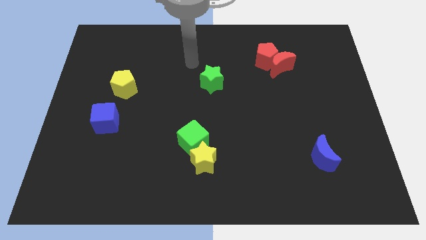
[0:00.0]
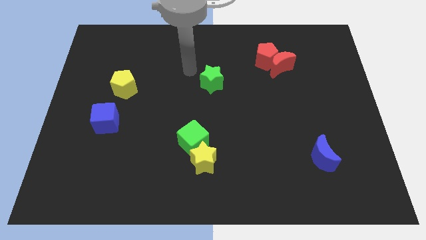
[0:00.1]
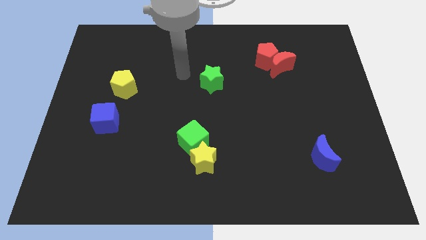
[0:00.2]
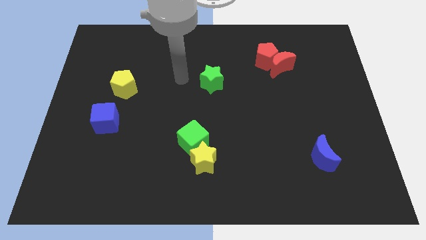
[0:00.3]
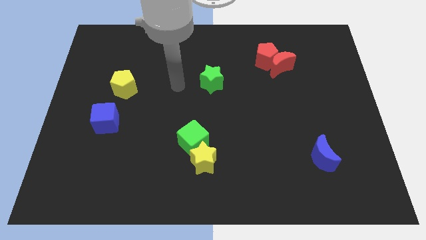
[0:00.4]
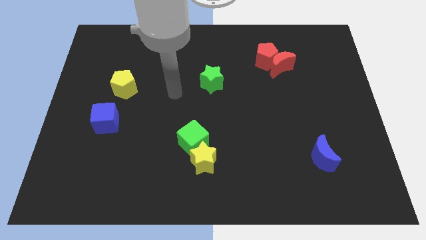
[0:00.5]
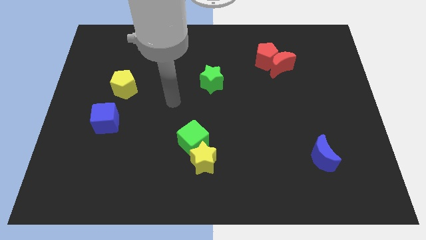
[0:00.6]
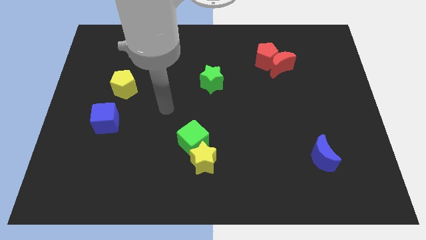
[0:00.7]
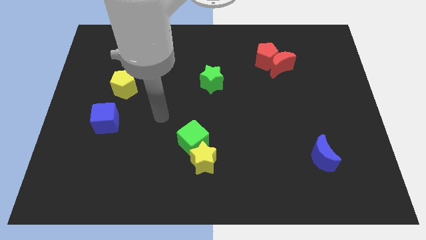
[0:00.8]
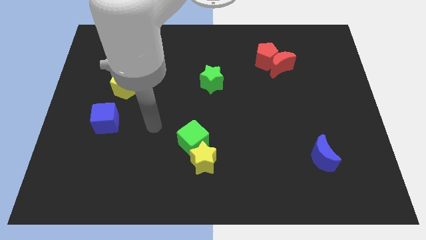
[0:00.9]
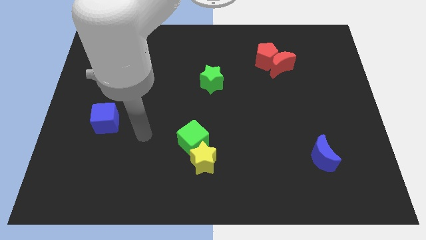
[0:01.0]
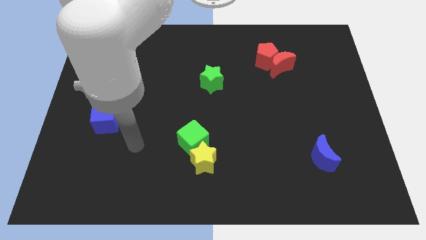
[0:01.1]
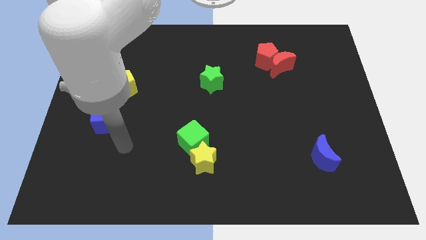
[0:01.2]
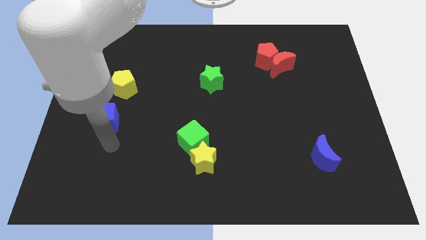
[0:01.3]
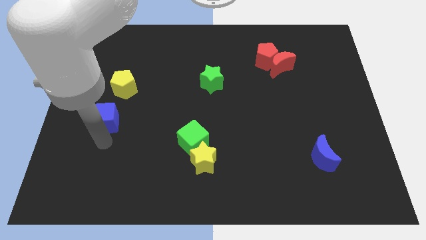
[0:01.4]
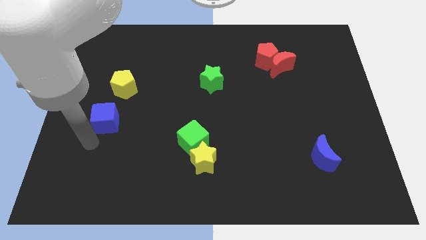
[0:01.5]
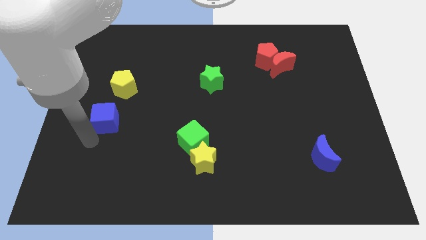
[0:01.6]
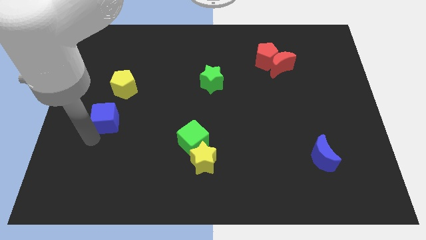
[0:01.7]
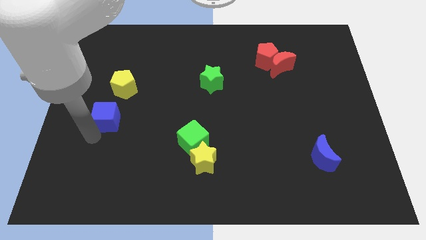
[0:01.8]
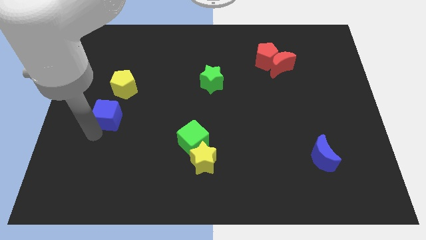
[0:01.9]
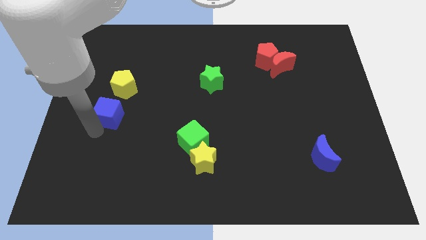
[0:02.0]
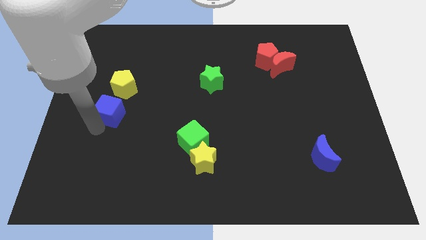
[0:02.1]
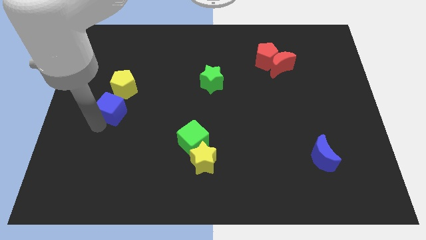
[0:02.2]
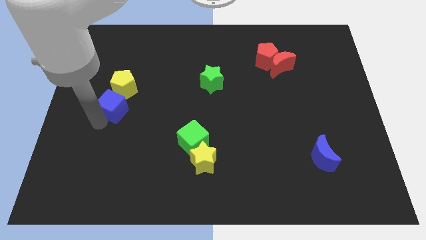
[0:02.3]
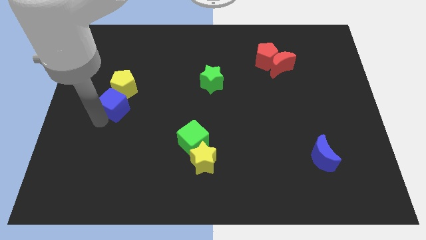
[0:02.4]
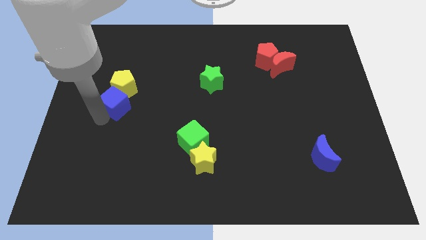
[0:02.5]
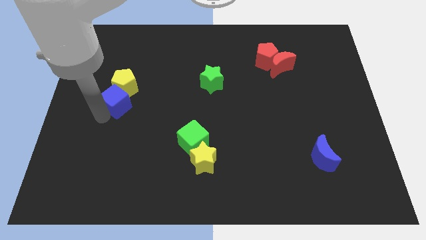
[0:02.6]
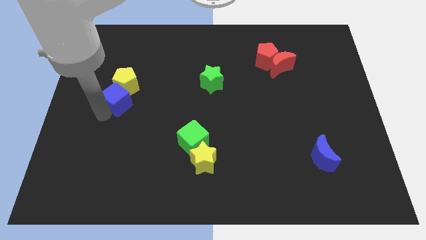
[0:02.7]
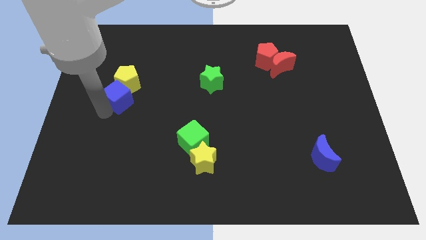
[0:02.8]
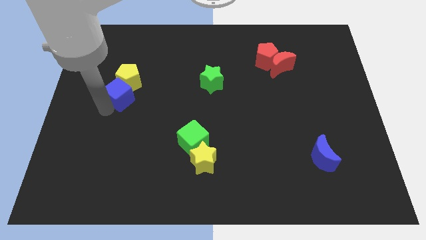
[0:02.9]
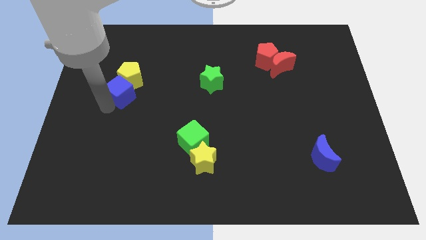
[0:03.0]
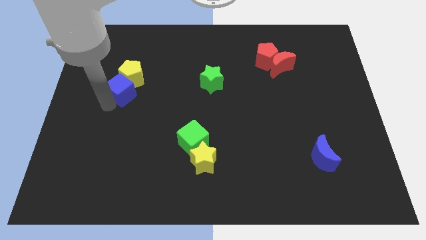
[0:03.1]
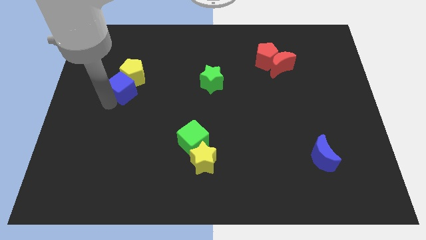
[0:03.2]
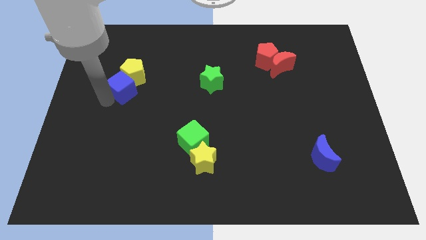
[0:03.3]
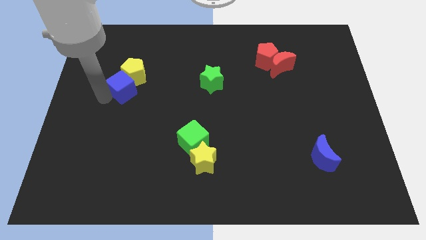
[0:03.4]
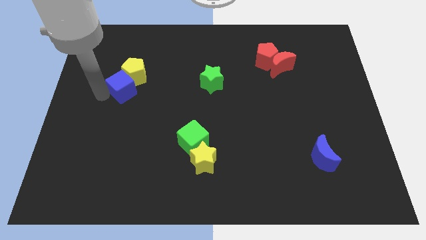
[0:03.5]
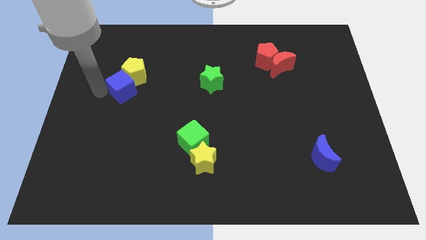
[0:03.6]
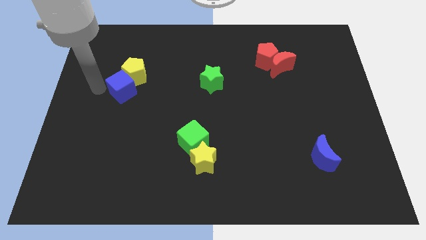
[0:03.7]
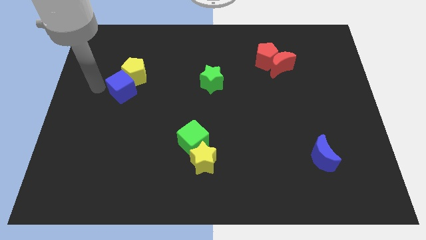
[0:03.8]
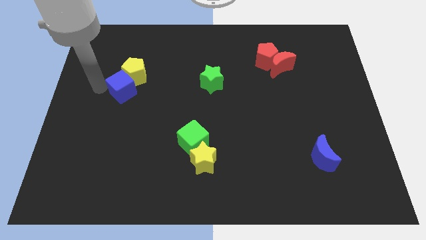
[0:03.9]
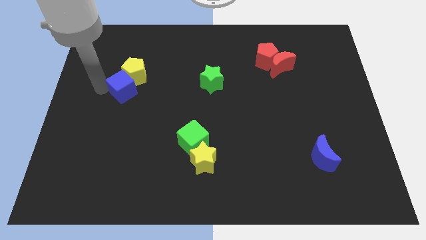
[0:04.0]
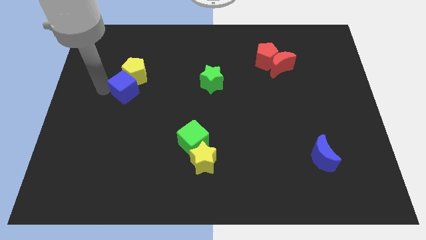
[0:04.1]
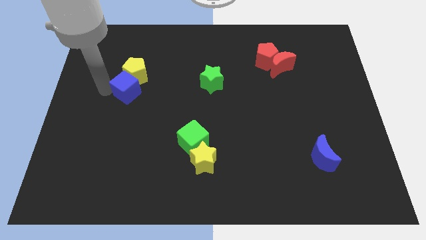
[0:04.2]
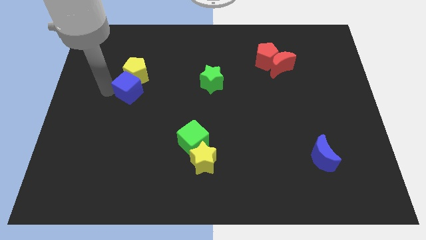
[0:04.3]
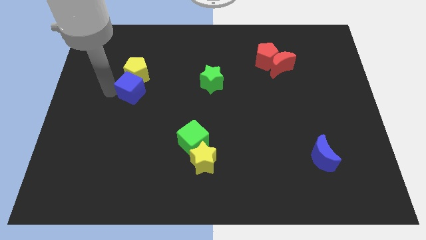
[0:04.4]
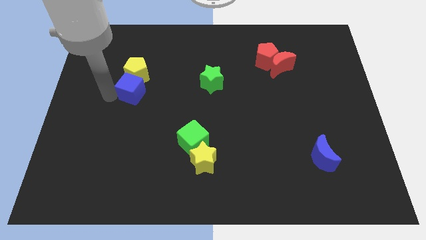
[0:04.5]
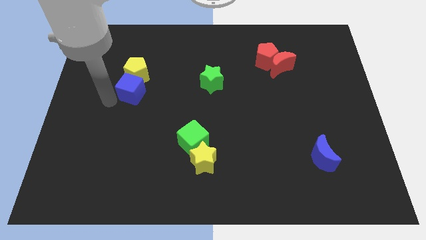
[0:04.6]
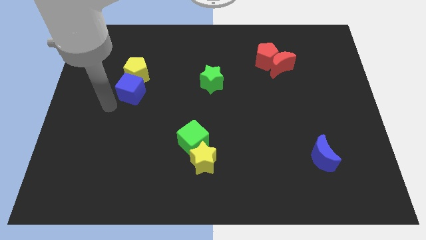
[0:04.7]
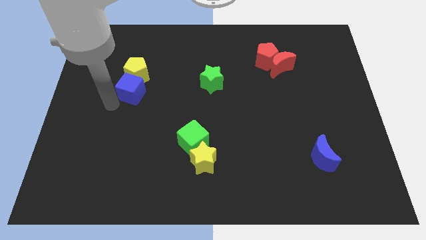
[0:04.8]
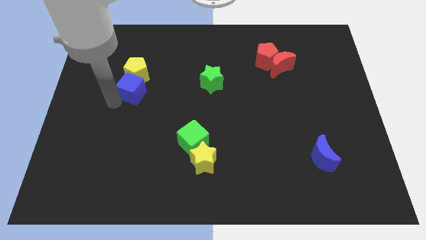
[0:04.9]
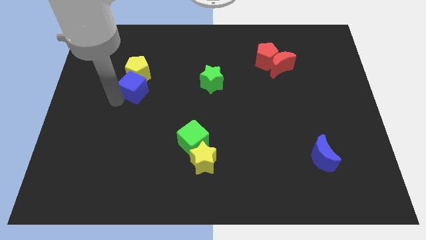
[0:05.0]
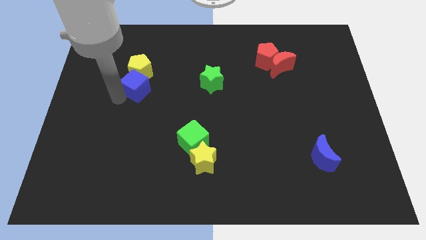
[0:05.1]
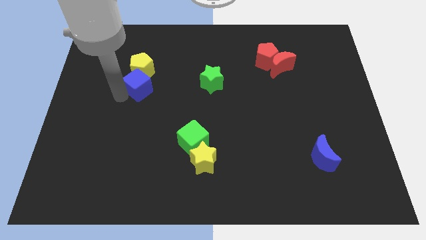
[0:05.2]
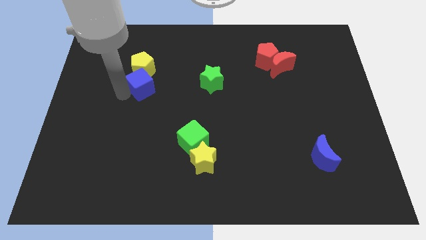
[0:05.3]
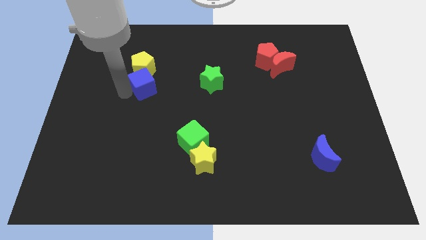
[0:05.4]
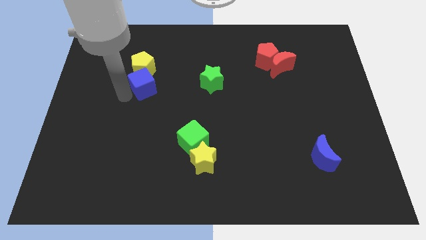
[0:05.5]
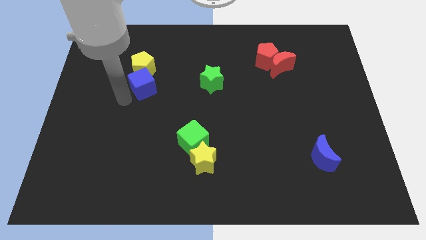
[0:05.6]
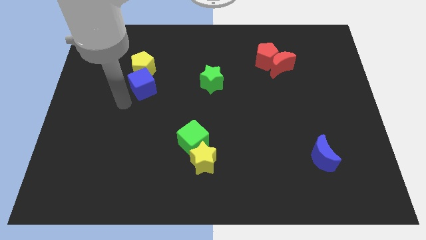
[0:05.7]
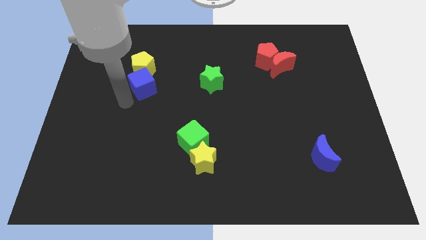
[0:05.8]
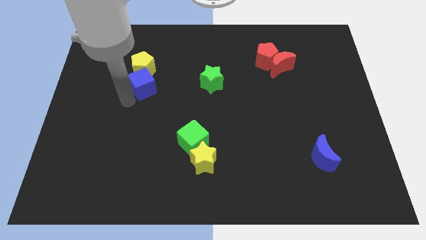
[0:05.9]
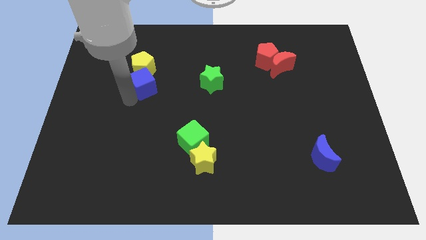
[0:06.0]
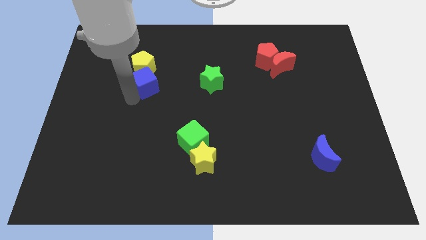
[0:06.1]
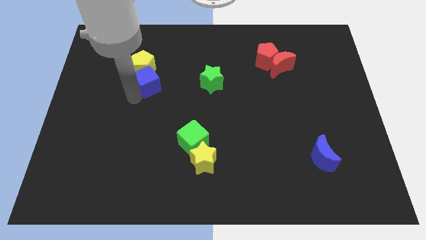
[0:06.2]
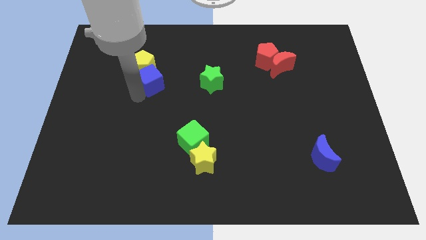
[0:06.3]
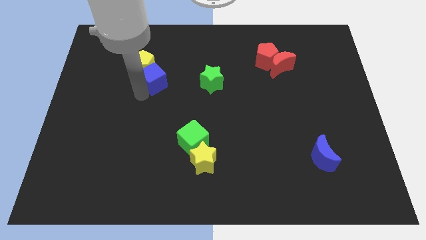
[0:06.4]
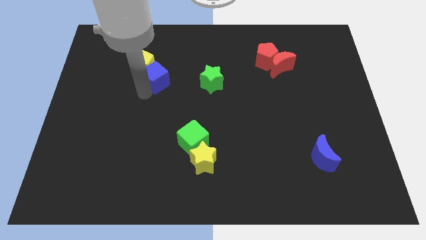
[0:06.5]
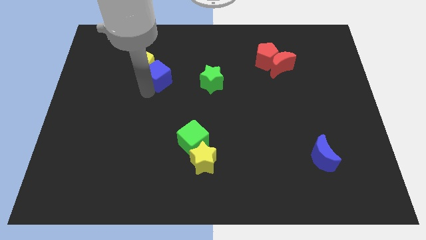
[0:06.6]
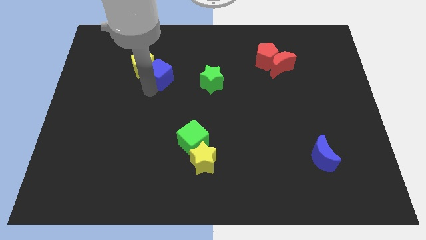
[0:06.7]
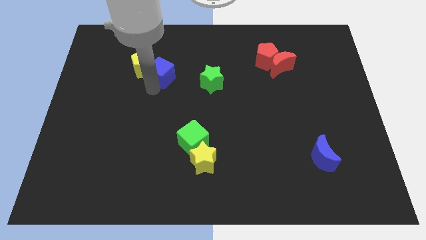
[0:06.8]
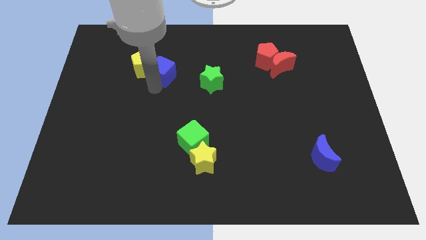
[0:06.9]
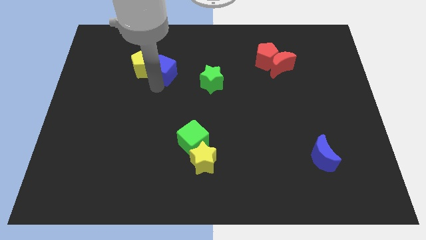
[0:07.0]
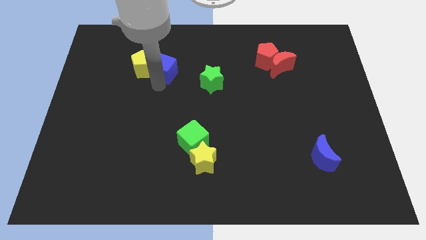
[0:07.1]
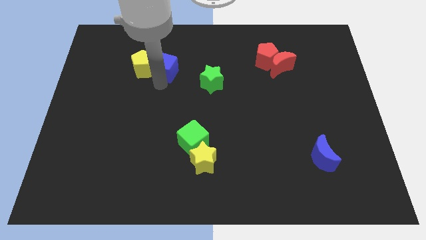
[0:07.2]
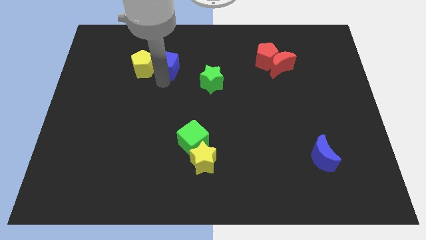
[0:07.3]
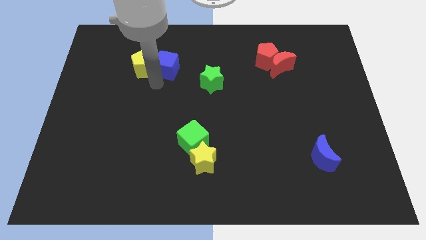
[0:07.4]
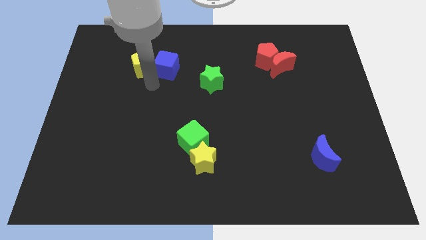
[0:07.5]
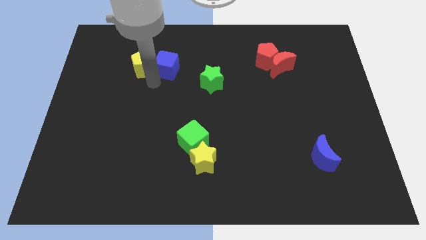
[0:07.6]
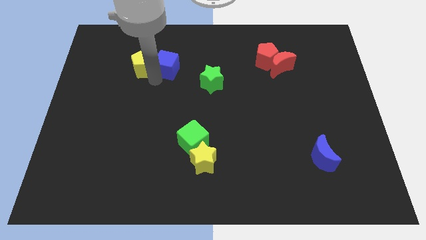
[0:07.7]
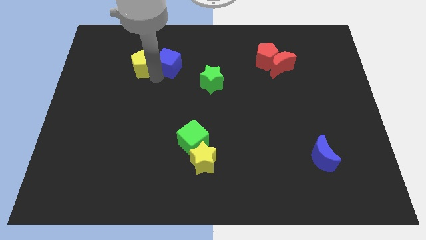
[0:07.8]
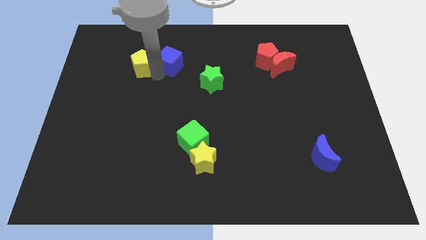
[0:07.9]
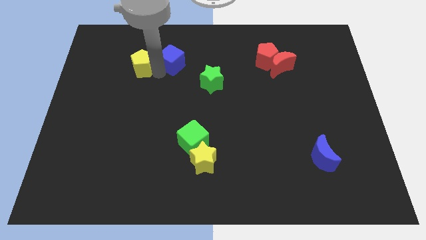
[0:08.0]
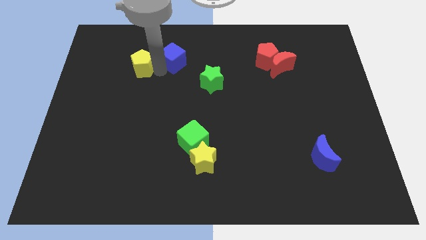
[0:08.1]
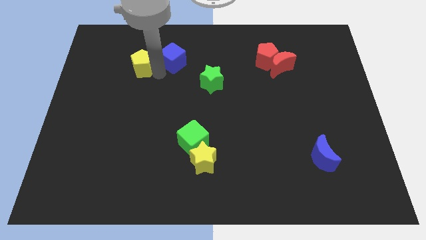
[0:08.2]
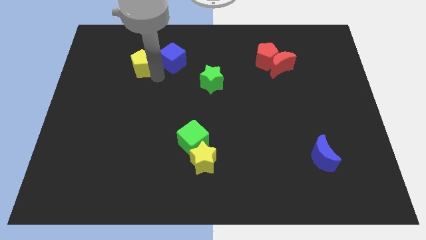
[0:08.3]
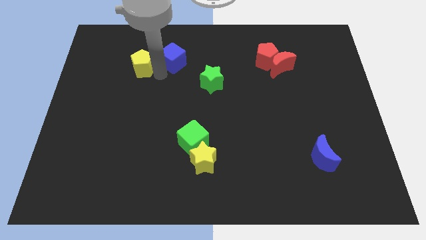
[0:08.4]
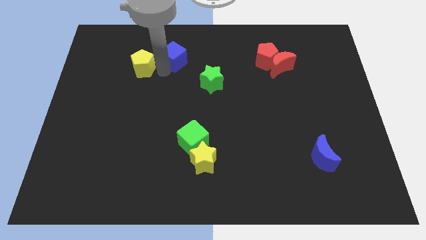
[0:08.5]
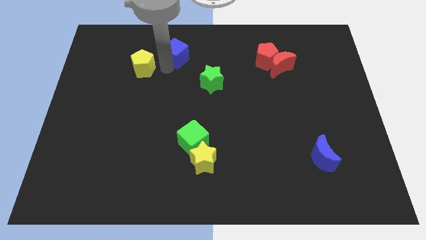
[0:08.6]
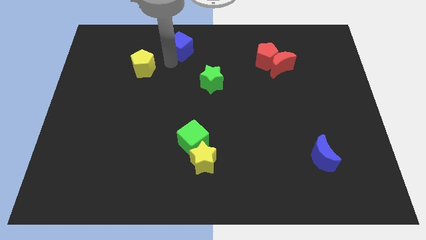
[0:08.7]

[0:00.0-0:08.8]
push the blue cube to the towards your base
